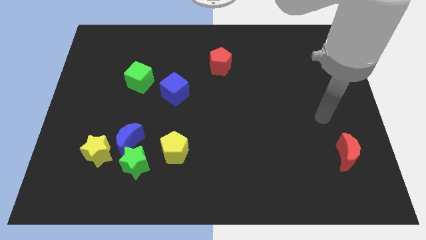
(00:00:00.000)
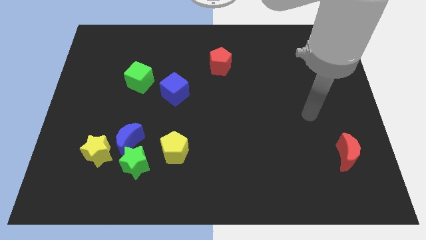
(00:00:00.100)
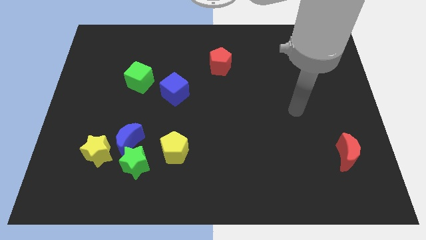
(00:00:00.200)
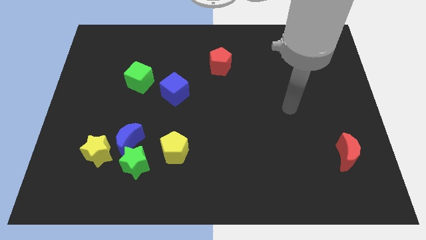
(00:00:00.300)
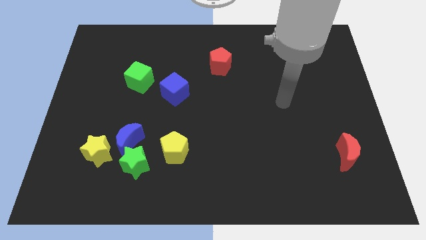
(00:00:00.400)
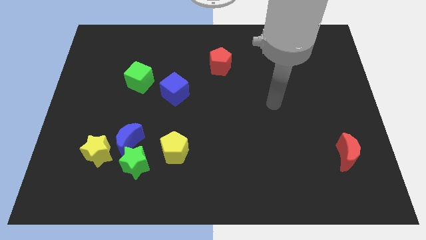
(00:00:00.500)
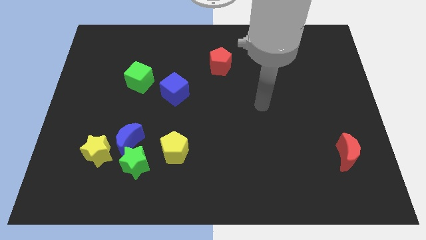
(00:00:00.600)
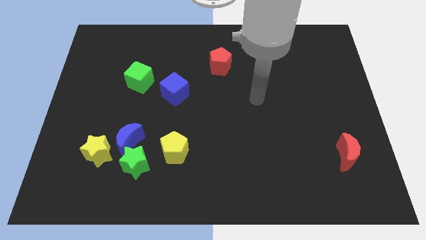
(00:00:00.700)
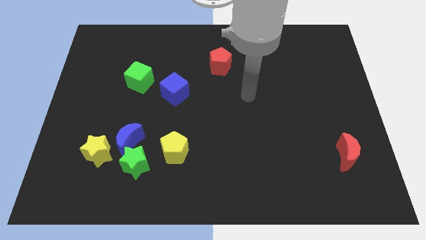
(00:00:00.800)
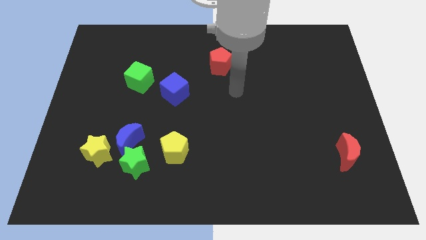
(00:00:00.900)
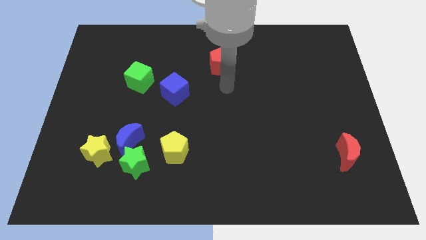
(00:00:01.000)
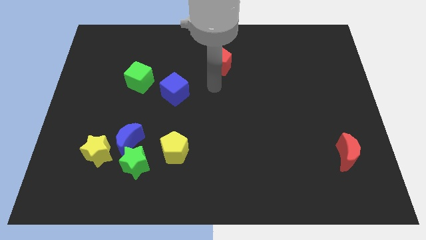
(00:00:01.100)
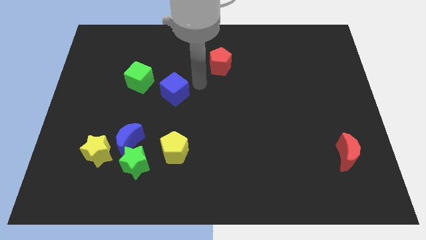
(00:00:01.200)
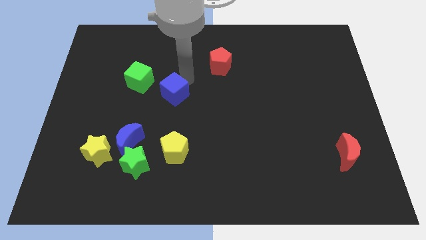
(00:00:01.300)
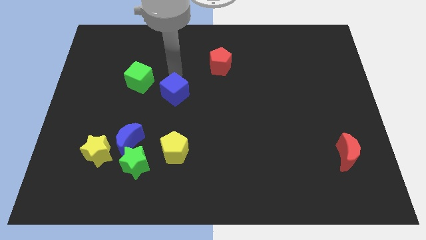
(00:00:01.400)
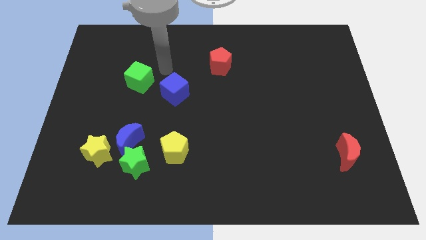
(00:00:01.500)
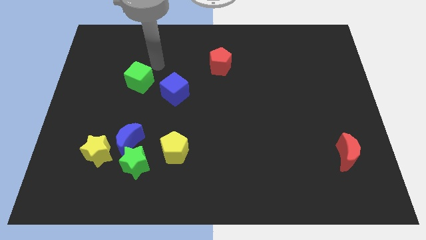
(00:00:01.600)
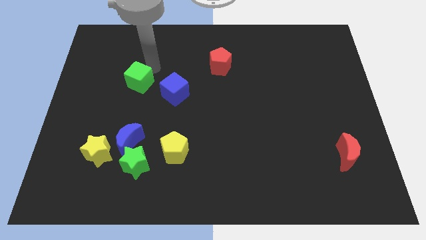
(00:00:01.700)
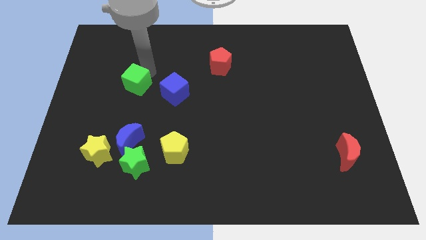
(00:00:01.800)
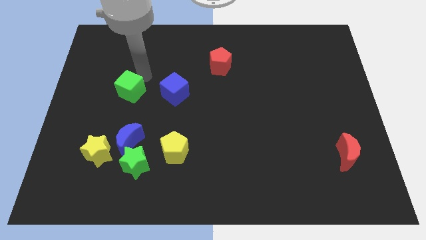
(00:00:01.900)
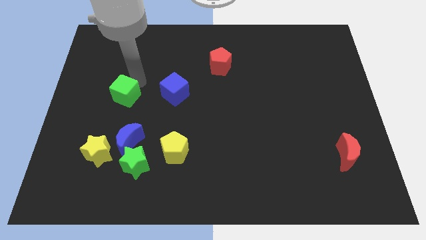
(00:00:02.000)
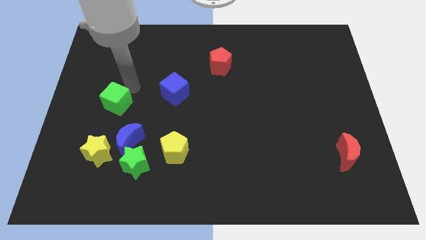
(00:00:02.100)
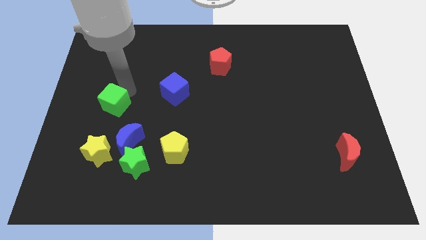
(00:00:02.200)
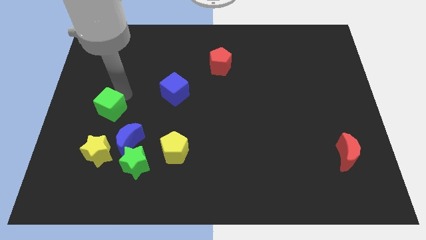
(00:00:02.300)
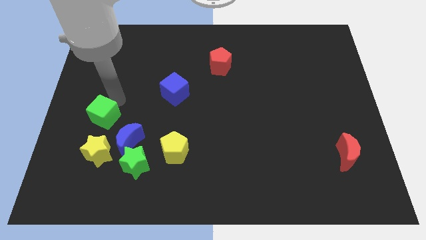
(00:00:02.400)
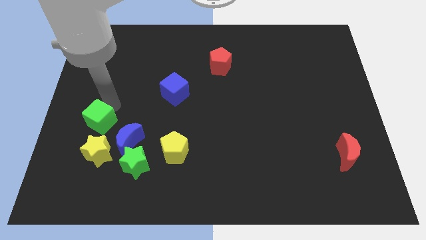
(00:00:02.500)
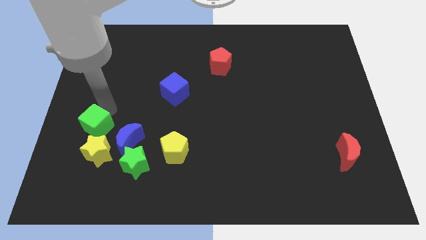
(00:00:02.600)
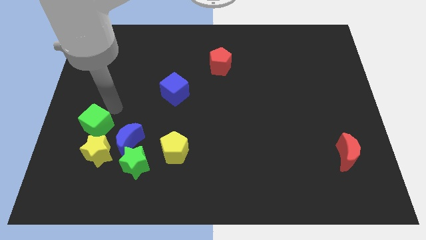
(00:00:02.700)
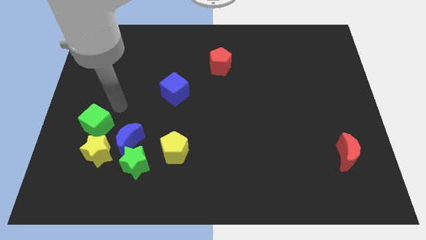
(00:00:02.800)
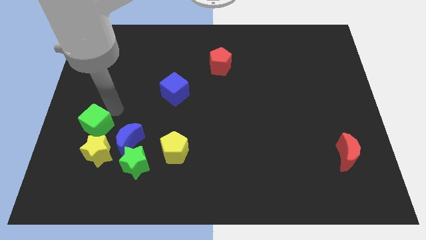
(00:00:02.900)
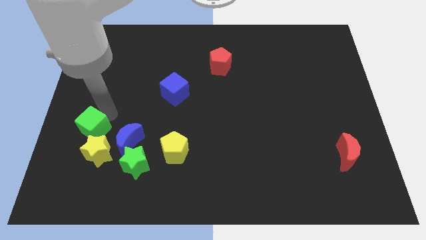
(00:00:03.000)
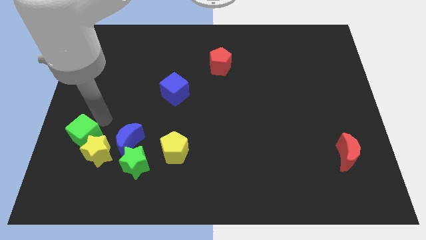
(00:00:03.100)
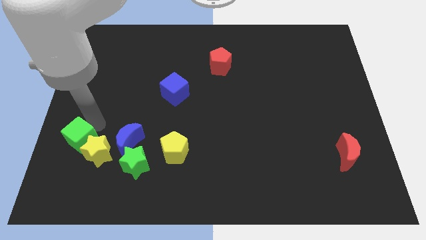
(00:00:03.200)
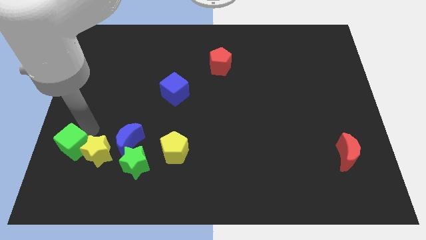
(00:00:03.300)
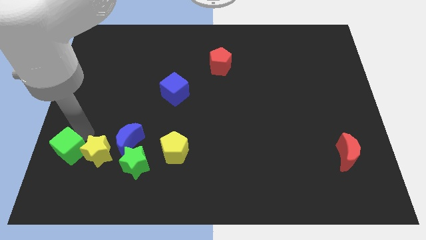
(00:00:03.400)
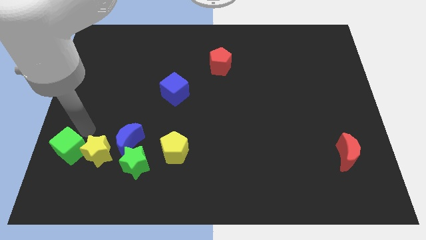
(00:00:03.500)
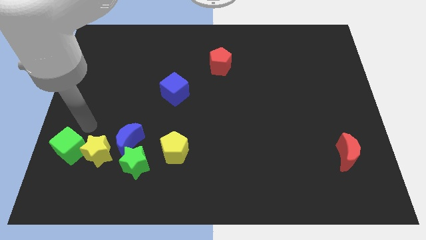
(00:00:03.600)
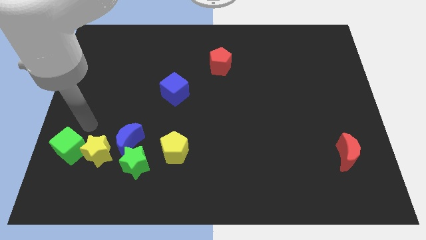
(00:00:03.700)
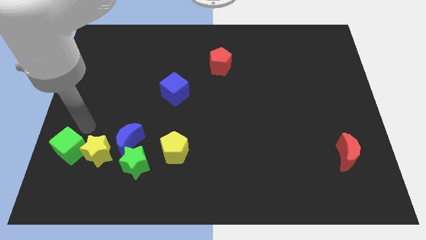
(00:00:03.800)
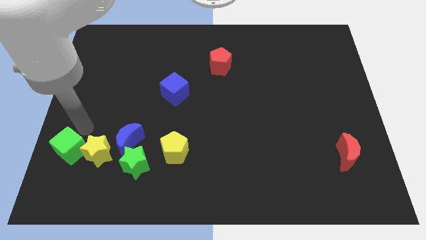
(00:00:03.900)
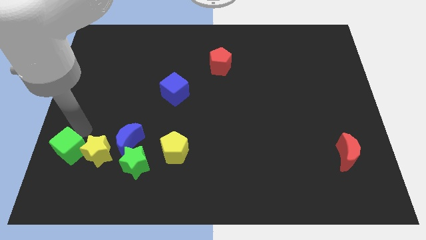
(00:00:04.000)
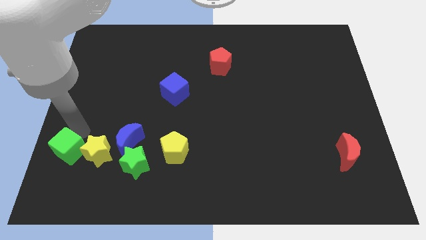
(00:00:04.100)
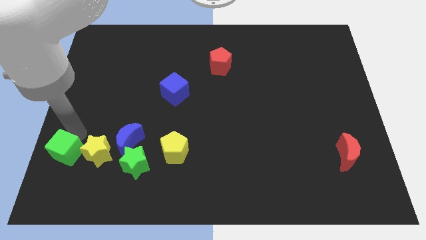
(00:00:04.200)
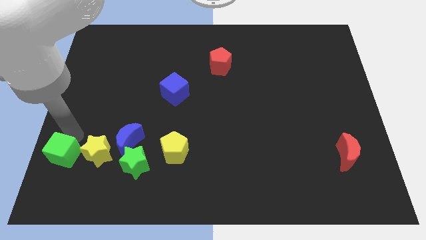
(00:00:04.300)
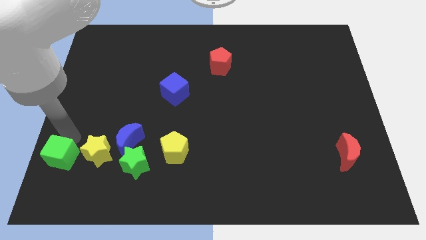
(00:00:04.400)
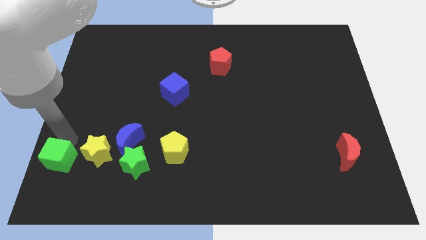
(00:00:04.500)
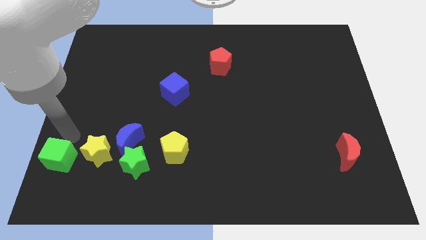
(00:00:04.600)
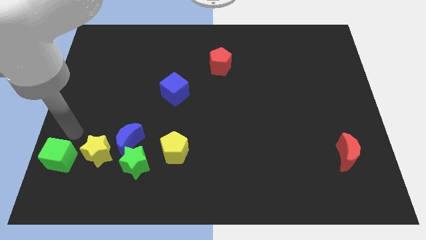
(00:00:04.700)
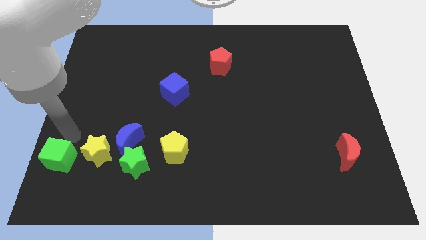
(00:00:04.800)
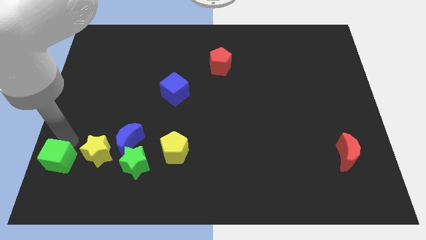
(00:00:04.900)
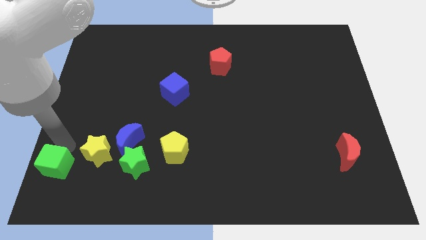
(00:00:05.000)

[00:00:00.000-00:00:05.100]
push the green cube to the bottom left of the board

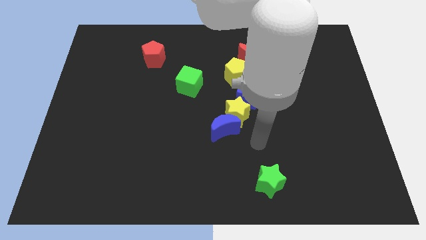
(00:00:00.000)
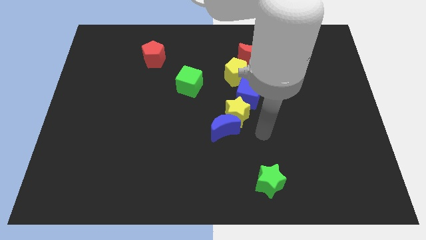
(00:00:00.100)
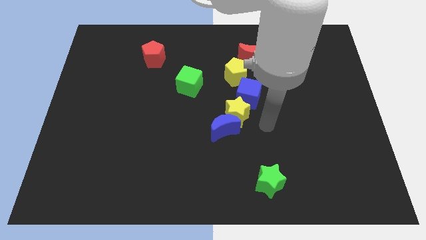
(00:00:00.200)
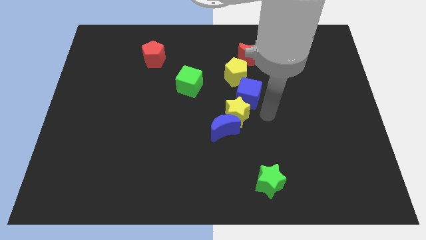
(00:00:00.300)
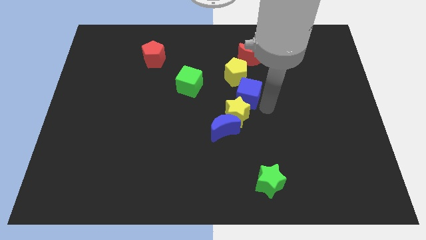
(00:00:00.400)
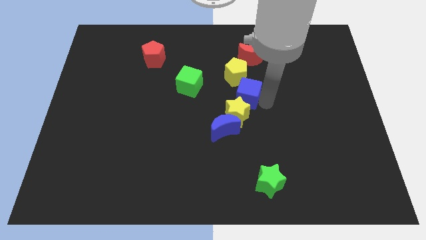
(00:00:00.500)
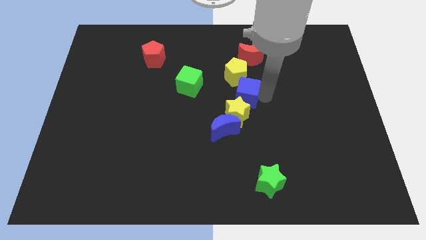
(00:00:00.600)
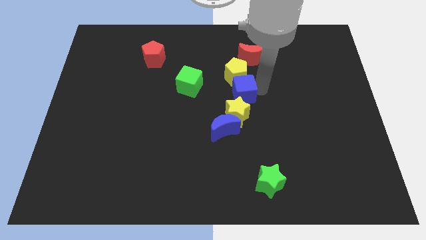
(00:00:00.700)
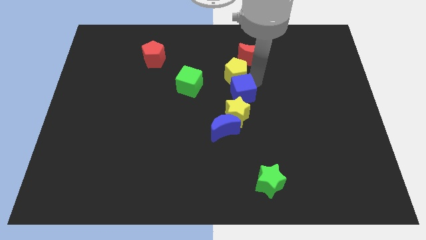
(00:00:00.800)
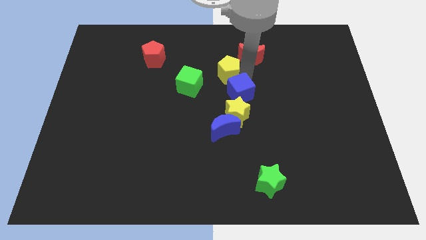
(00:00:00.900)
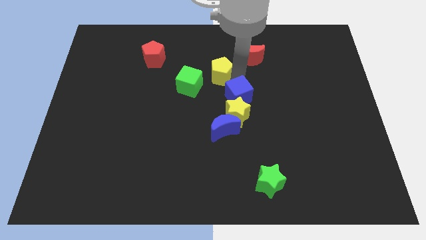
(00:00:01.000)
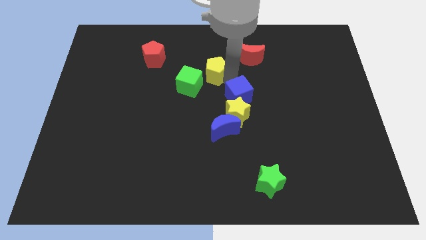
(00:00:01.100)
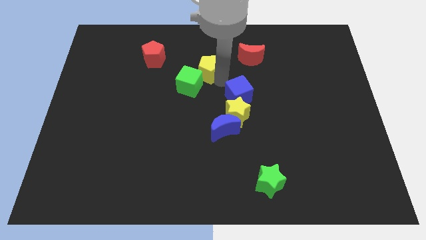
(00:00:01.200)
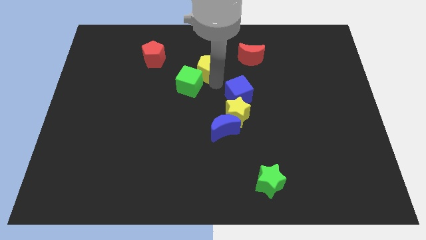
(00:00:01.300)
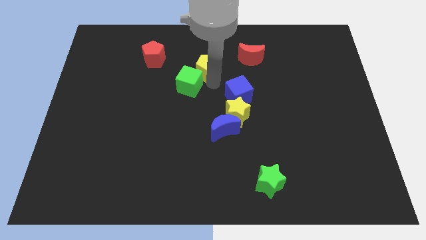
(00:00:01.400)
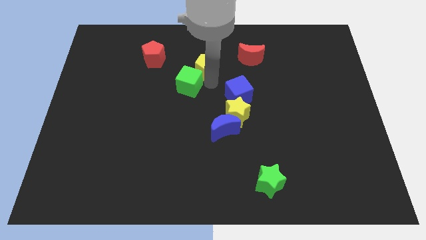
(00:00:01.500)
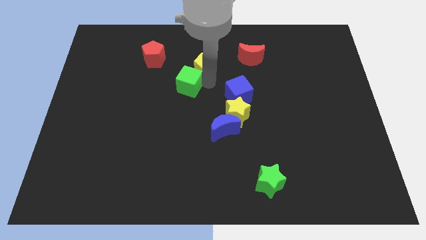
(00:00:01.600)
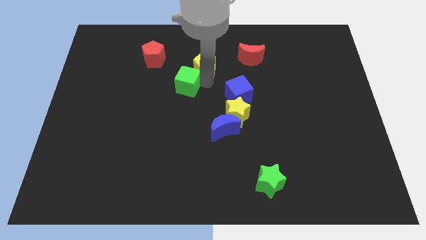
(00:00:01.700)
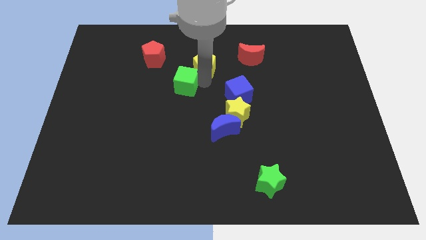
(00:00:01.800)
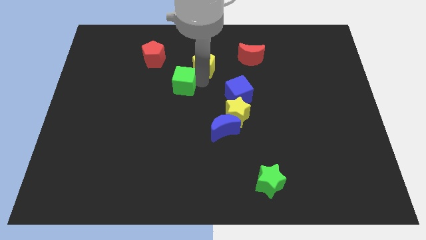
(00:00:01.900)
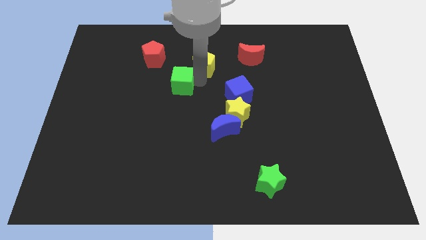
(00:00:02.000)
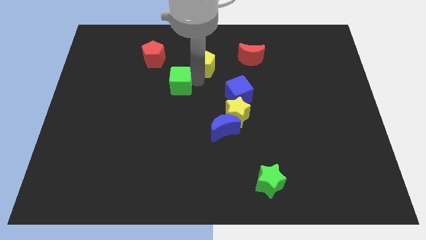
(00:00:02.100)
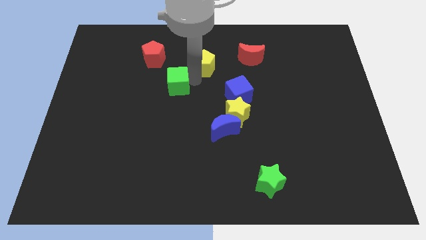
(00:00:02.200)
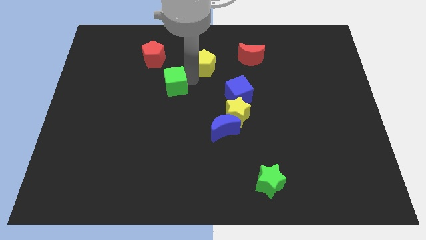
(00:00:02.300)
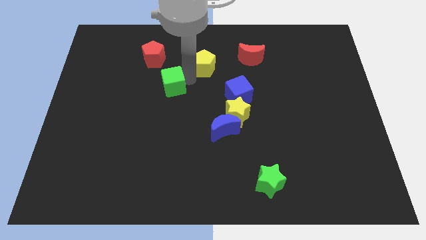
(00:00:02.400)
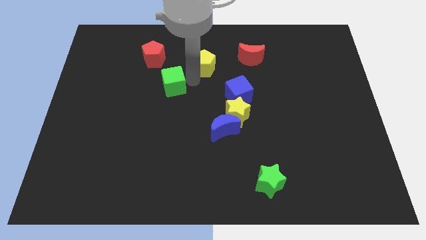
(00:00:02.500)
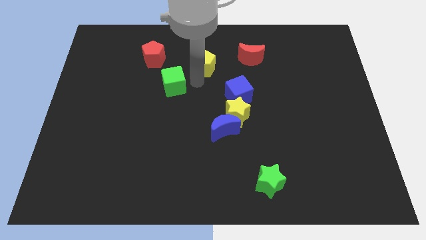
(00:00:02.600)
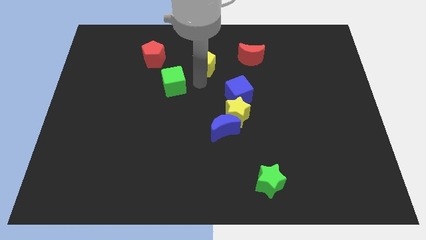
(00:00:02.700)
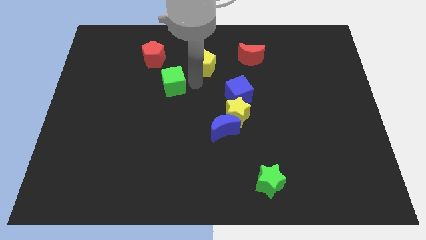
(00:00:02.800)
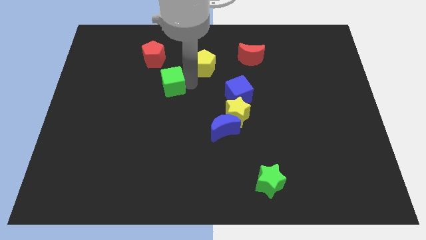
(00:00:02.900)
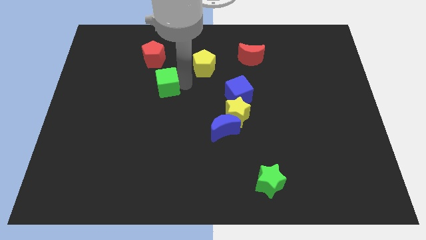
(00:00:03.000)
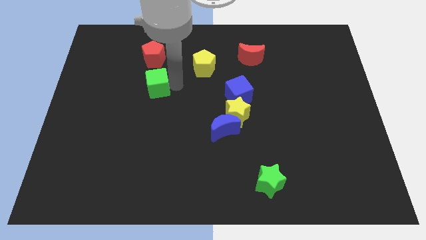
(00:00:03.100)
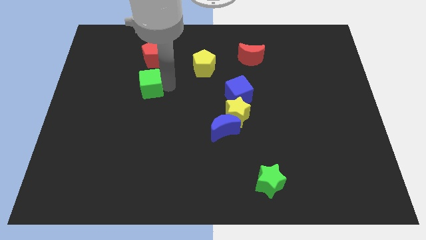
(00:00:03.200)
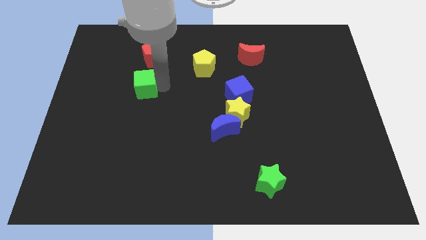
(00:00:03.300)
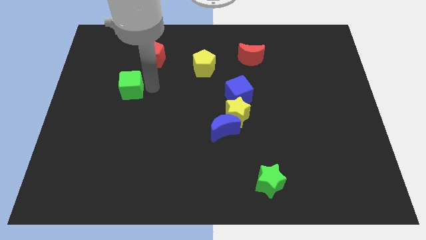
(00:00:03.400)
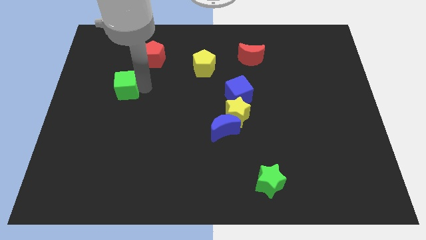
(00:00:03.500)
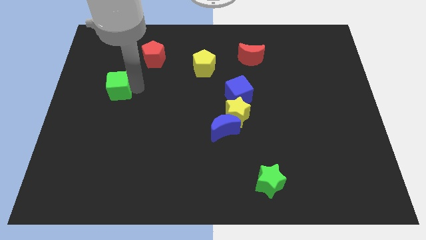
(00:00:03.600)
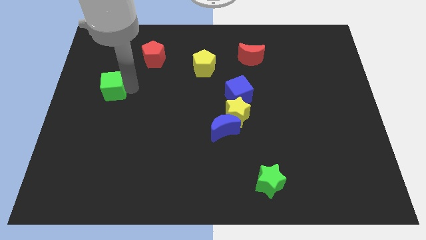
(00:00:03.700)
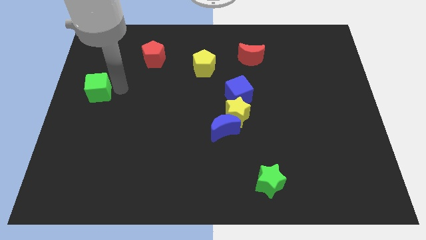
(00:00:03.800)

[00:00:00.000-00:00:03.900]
slide the green cube to the left side
